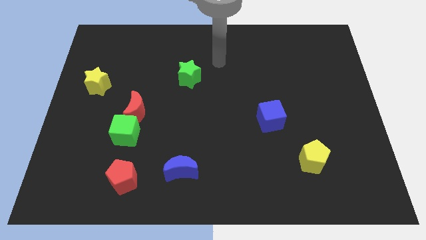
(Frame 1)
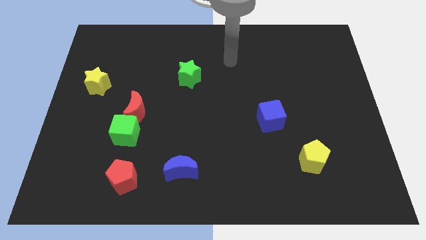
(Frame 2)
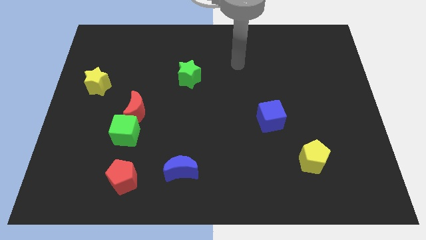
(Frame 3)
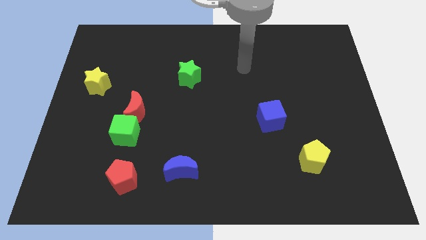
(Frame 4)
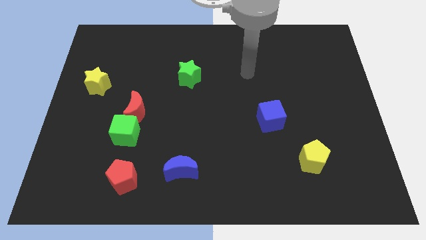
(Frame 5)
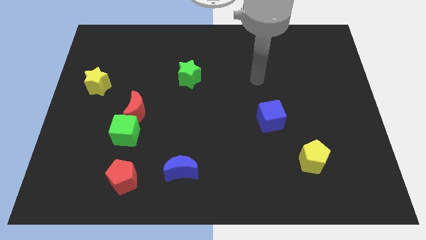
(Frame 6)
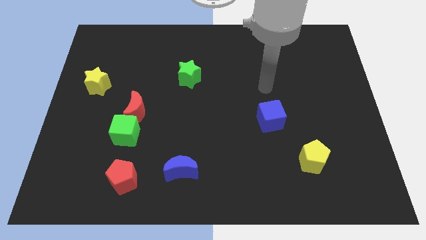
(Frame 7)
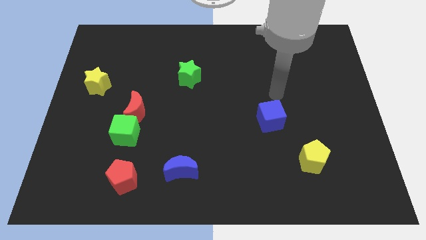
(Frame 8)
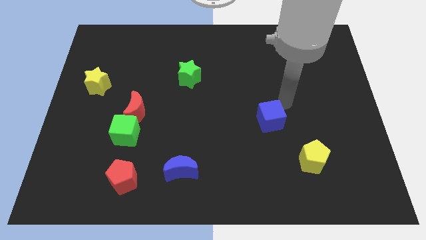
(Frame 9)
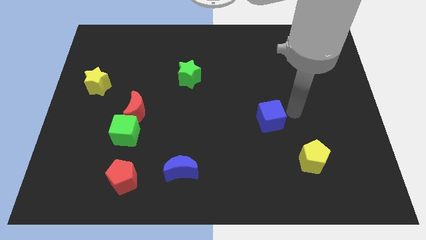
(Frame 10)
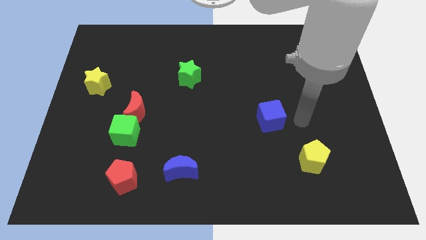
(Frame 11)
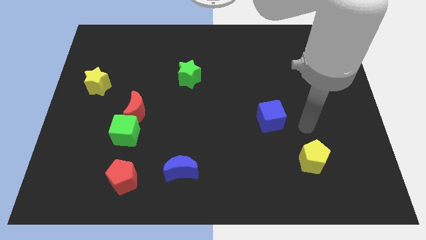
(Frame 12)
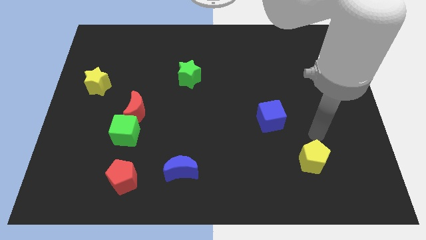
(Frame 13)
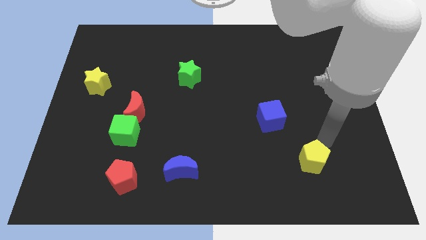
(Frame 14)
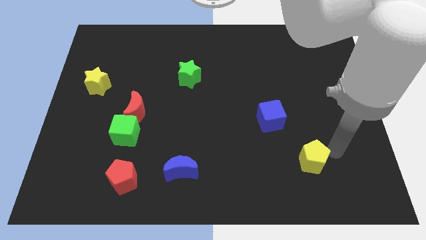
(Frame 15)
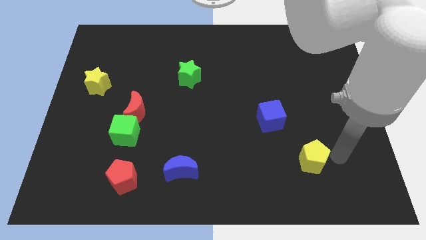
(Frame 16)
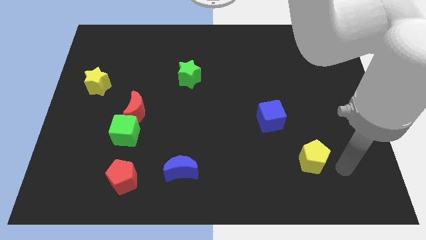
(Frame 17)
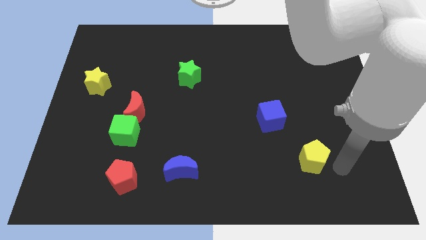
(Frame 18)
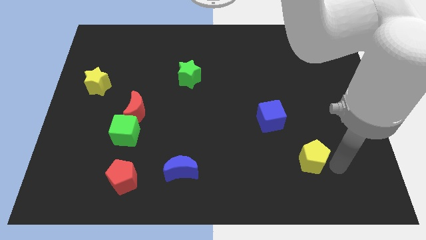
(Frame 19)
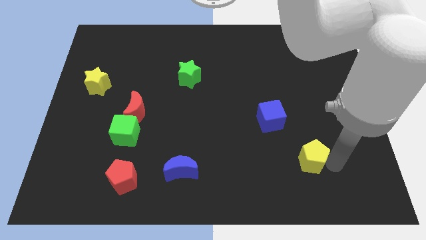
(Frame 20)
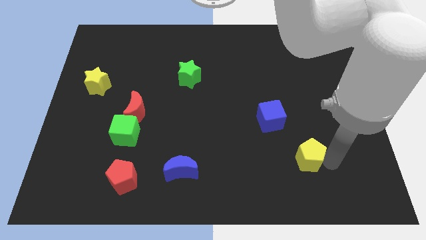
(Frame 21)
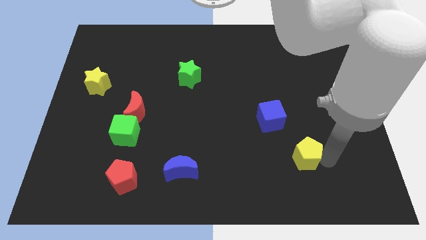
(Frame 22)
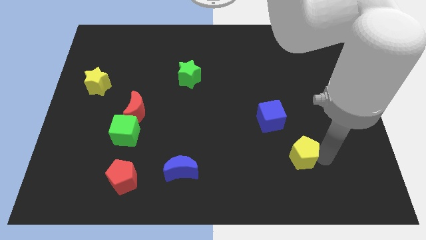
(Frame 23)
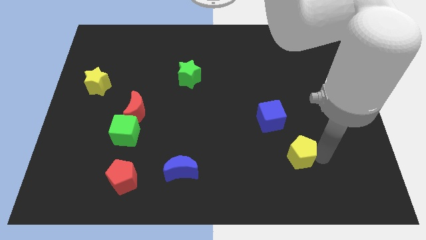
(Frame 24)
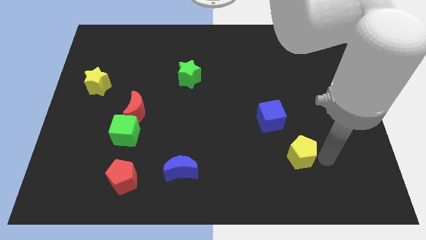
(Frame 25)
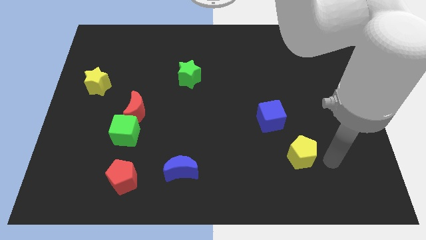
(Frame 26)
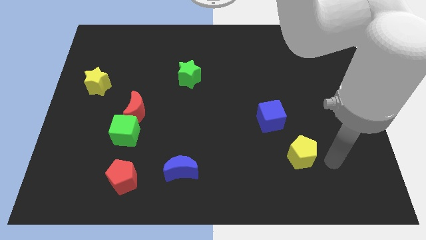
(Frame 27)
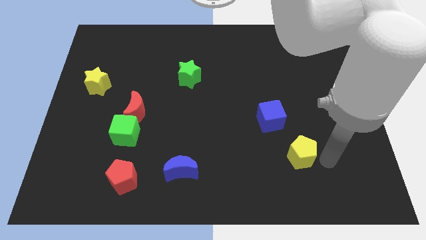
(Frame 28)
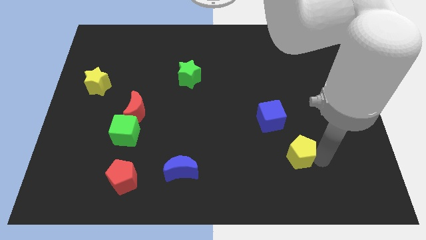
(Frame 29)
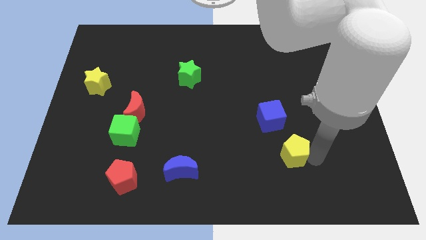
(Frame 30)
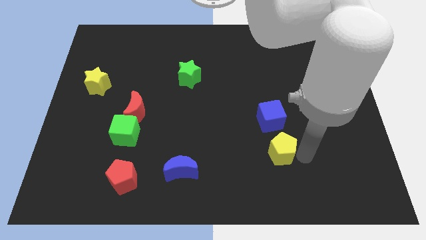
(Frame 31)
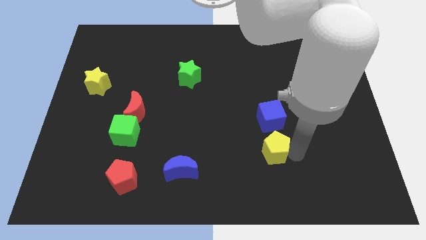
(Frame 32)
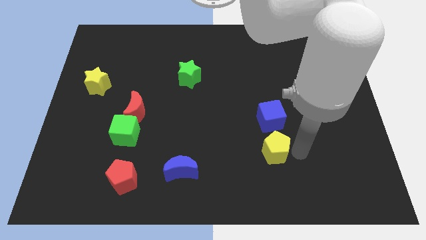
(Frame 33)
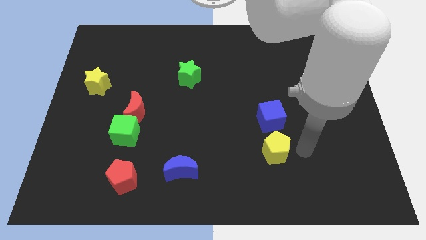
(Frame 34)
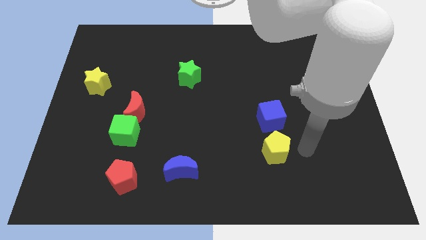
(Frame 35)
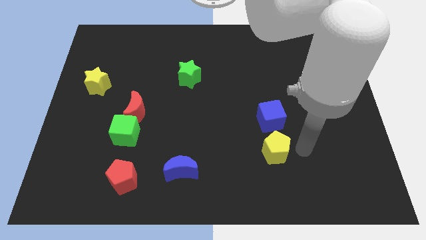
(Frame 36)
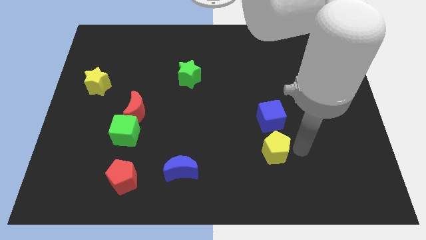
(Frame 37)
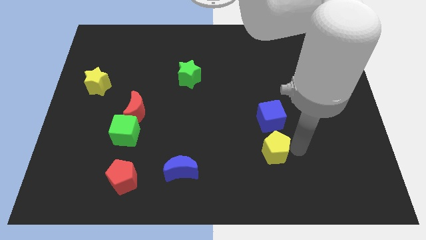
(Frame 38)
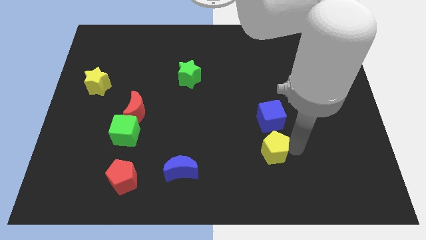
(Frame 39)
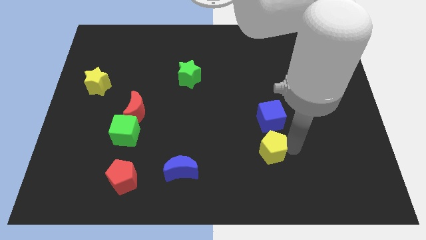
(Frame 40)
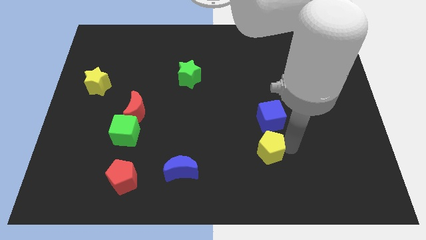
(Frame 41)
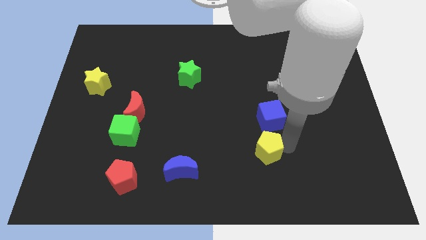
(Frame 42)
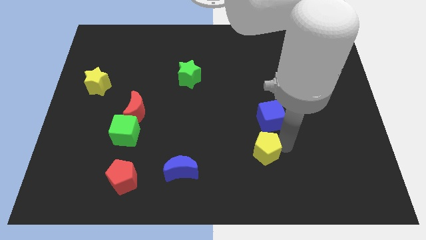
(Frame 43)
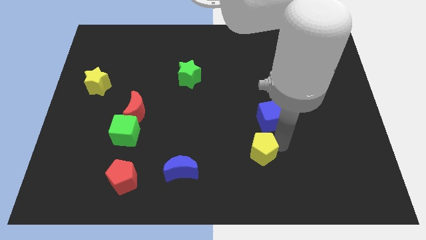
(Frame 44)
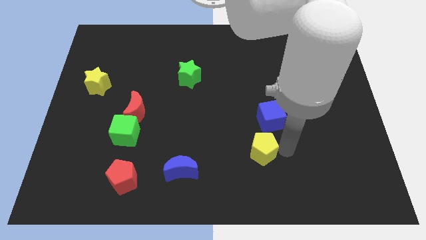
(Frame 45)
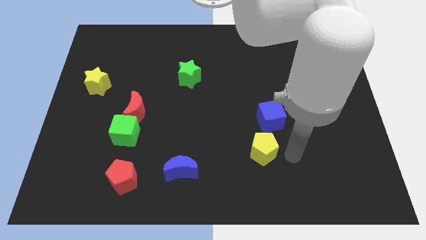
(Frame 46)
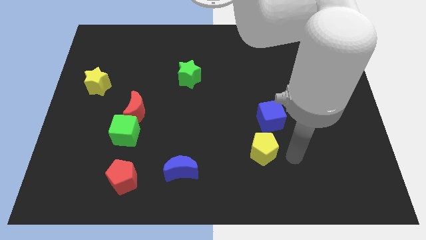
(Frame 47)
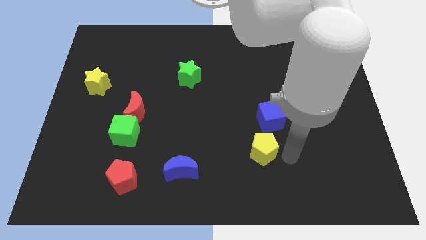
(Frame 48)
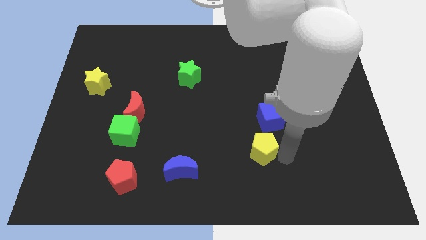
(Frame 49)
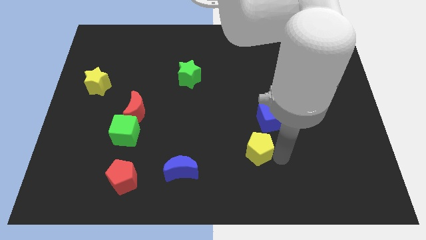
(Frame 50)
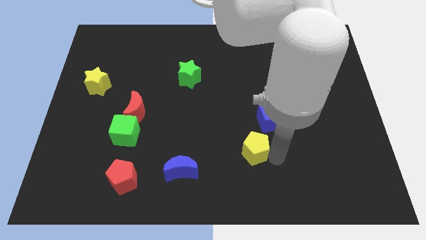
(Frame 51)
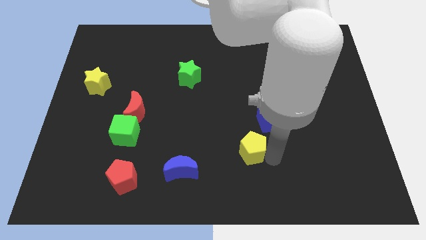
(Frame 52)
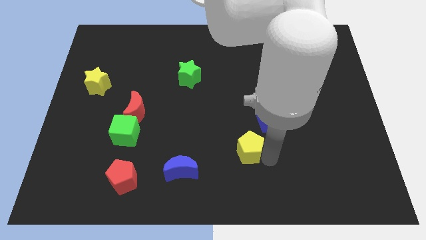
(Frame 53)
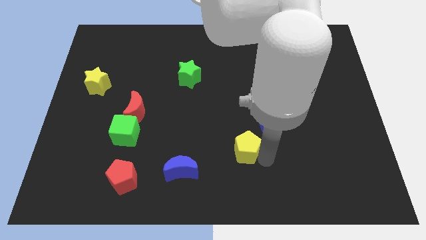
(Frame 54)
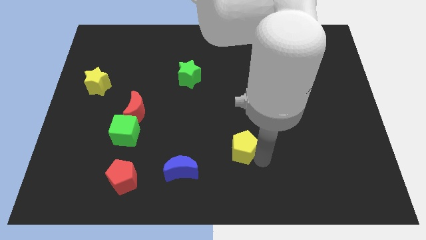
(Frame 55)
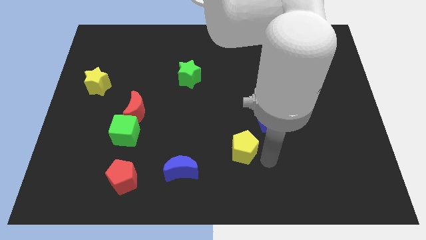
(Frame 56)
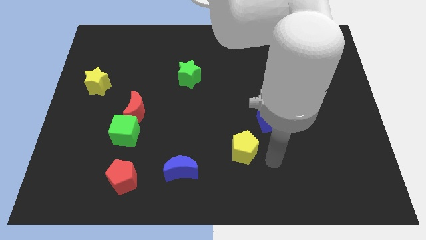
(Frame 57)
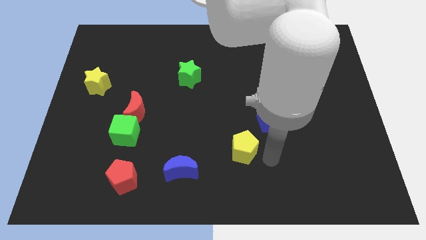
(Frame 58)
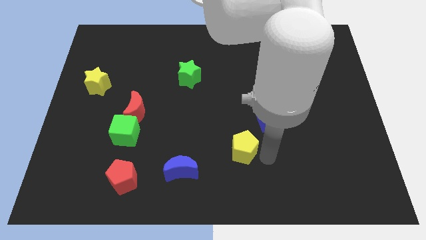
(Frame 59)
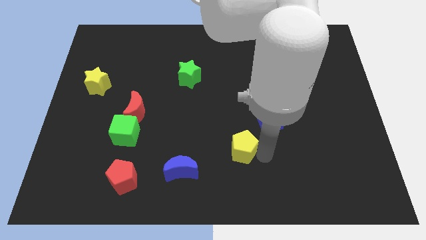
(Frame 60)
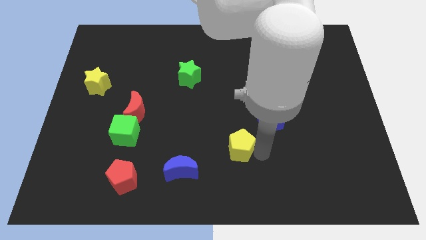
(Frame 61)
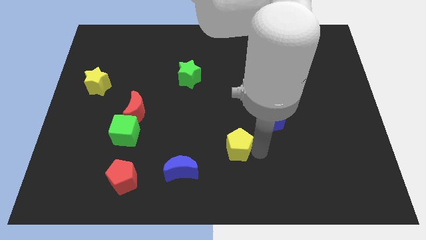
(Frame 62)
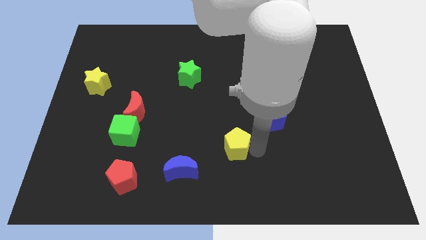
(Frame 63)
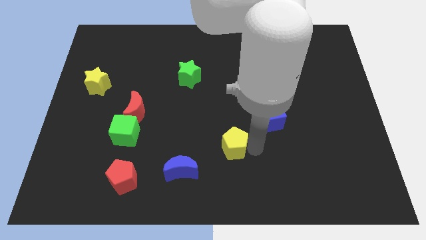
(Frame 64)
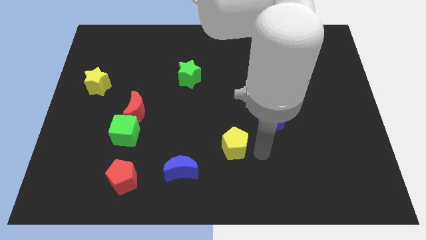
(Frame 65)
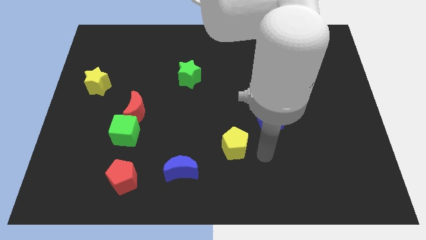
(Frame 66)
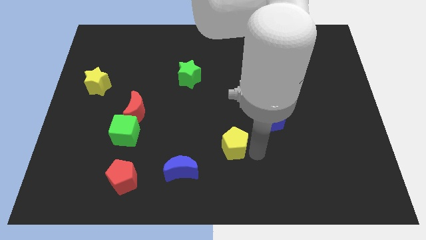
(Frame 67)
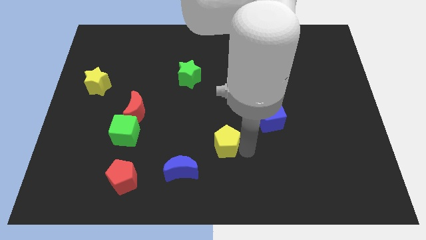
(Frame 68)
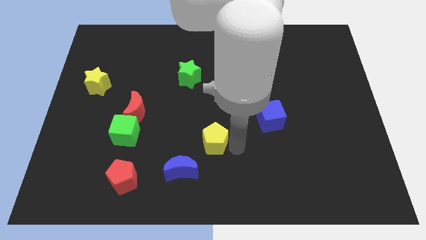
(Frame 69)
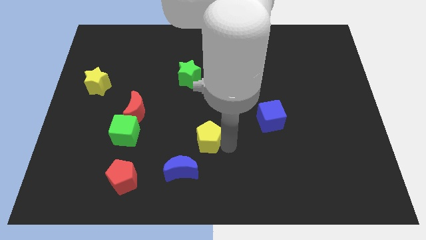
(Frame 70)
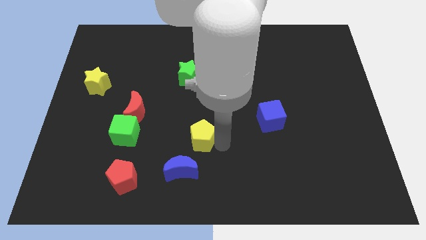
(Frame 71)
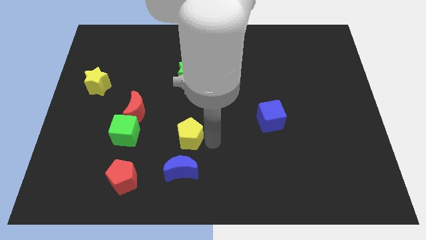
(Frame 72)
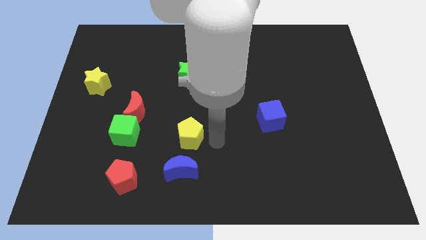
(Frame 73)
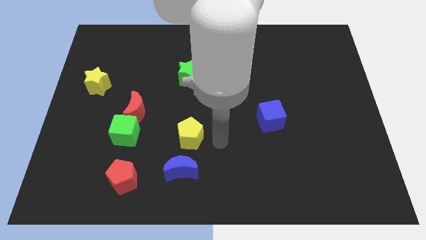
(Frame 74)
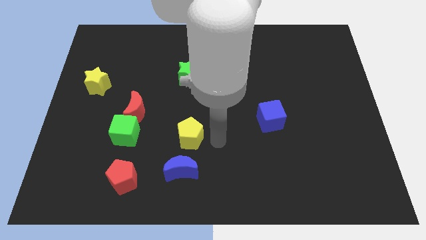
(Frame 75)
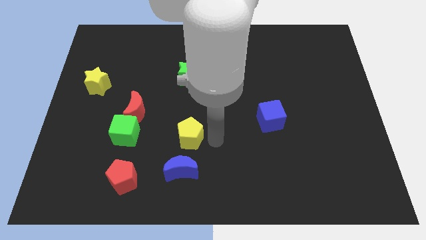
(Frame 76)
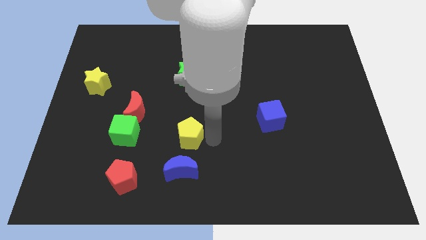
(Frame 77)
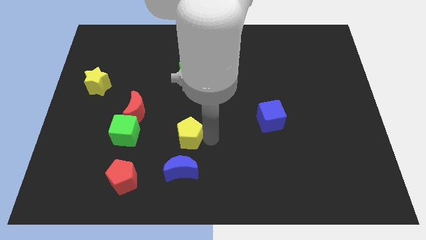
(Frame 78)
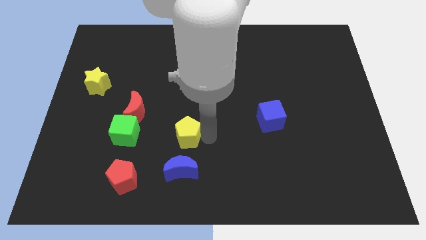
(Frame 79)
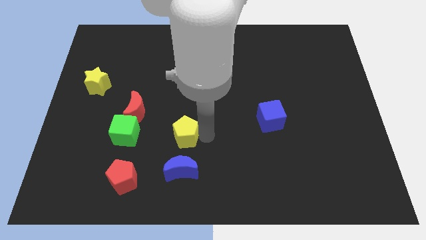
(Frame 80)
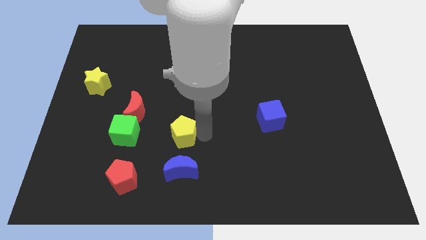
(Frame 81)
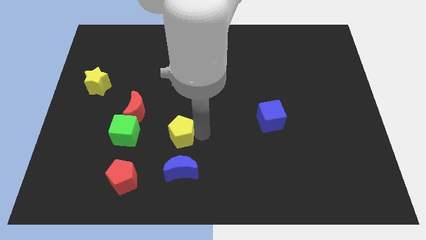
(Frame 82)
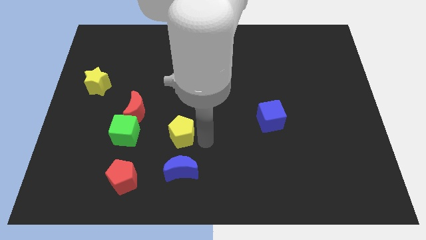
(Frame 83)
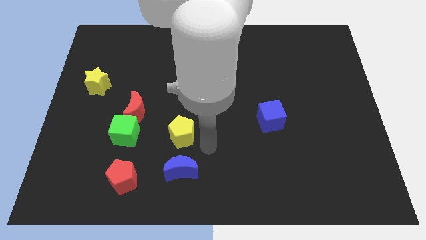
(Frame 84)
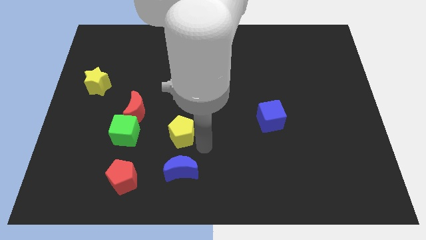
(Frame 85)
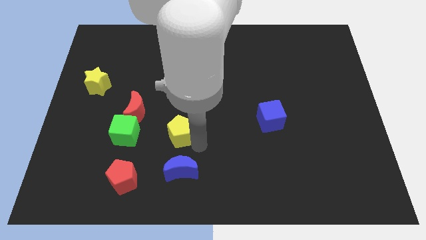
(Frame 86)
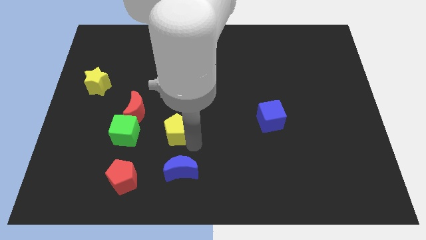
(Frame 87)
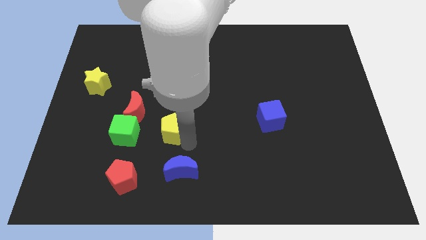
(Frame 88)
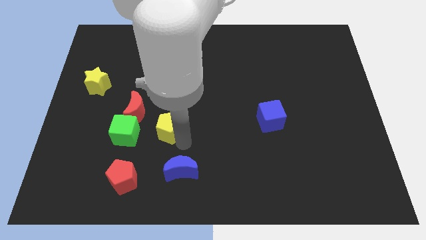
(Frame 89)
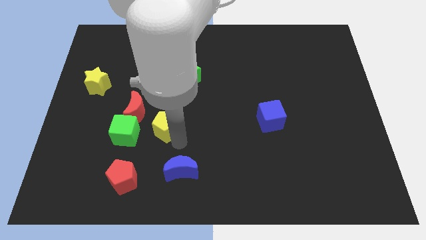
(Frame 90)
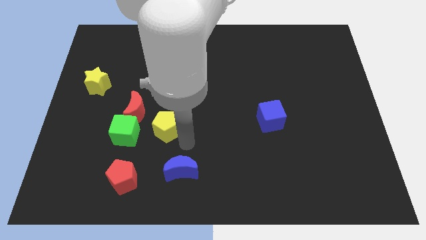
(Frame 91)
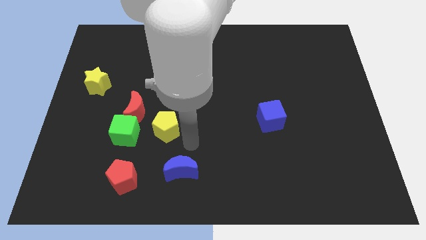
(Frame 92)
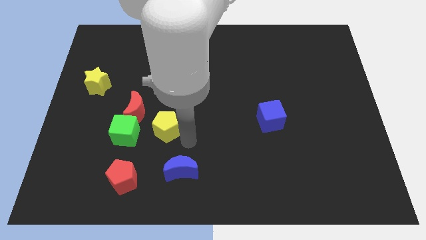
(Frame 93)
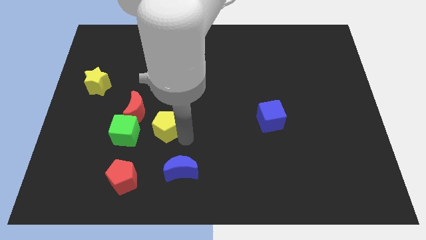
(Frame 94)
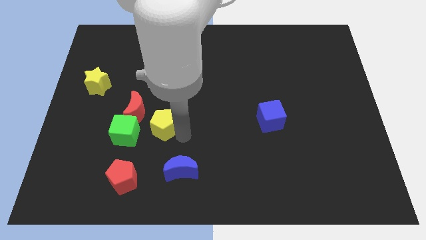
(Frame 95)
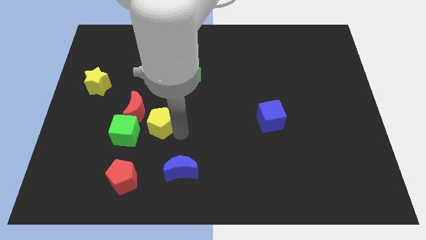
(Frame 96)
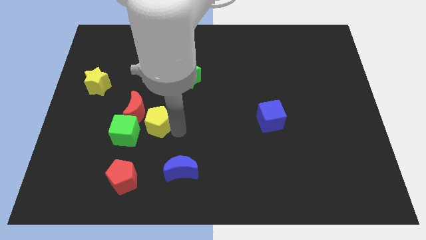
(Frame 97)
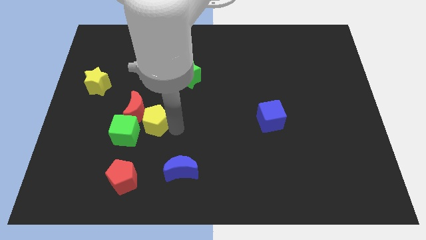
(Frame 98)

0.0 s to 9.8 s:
slide the yellow pentagon to the red moon
